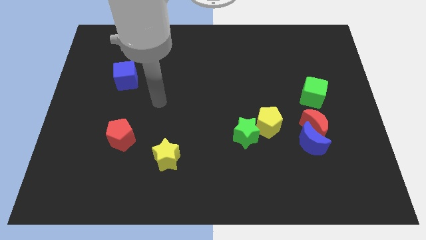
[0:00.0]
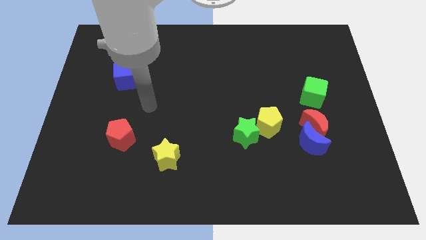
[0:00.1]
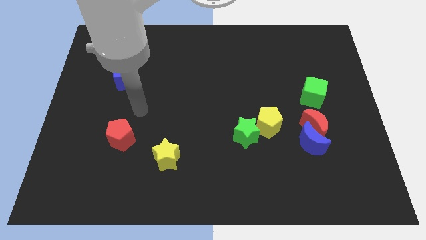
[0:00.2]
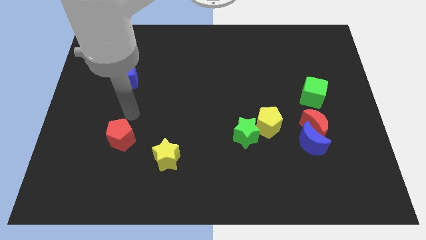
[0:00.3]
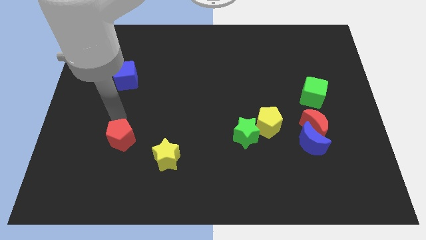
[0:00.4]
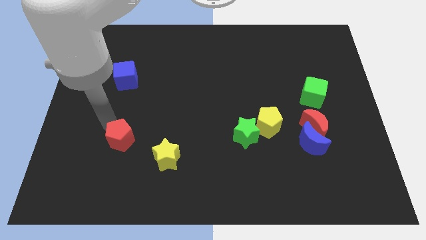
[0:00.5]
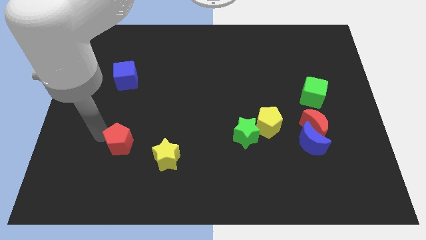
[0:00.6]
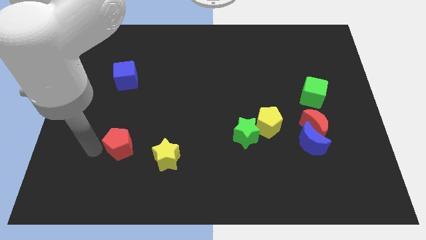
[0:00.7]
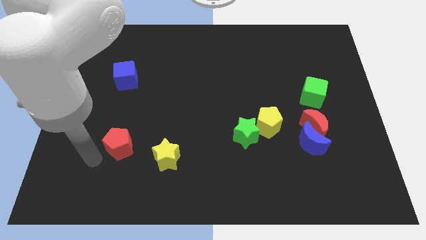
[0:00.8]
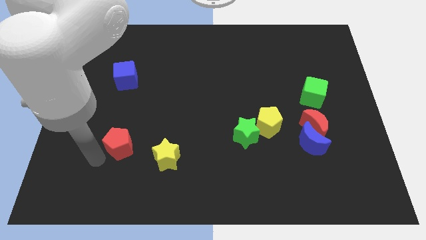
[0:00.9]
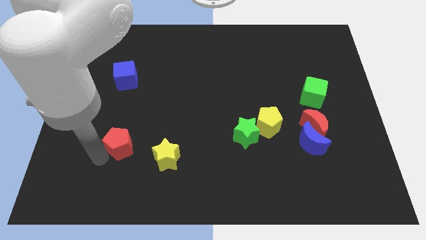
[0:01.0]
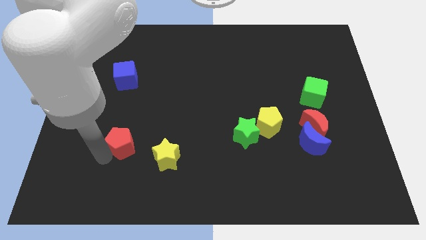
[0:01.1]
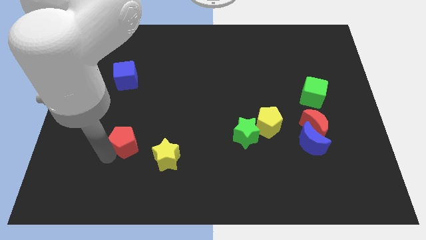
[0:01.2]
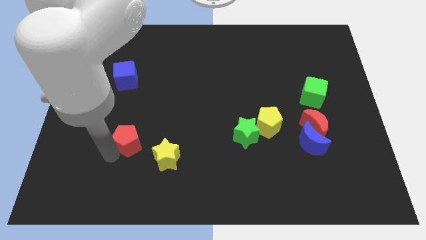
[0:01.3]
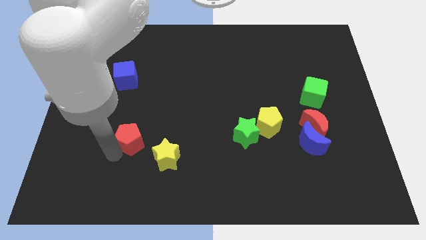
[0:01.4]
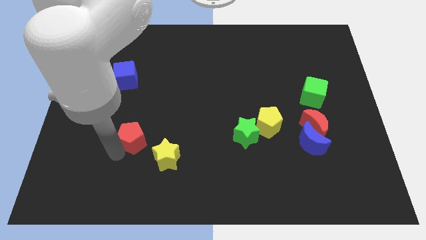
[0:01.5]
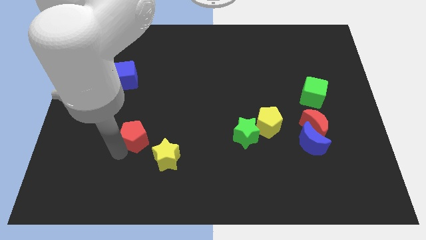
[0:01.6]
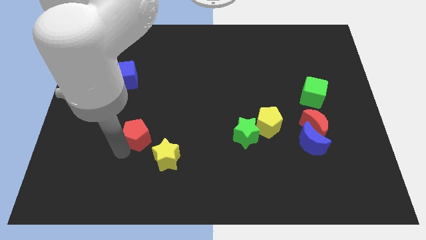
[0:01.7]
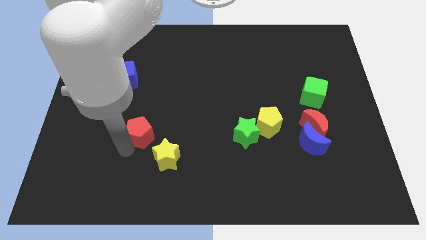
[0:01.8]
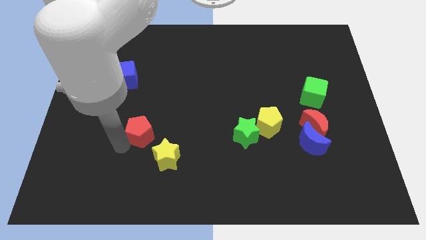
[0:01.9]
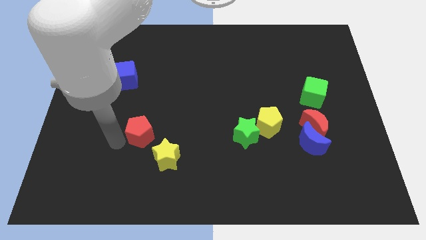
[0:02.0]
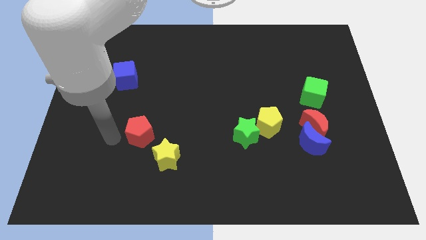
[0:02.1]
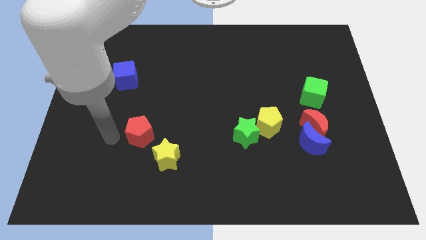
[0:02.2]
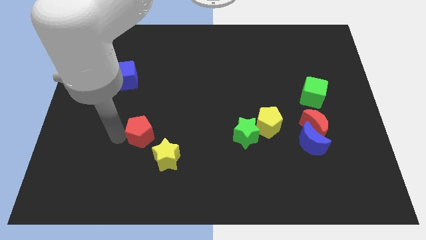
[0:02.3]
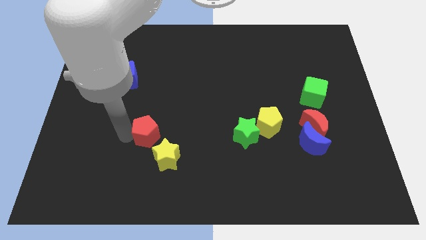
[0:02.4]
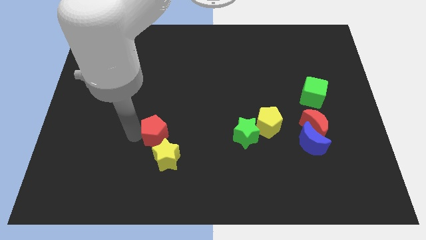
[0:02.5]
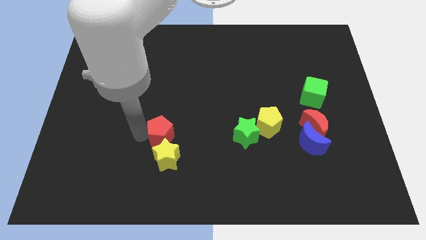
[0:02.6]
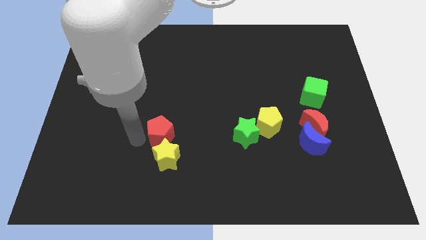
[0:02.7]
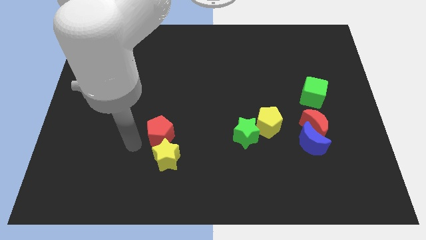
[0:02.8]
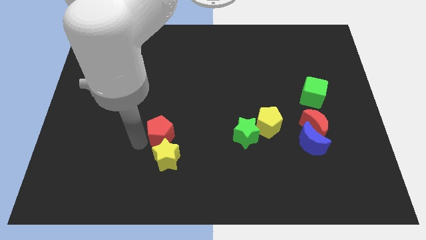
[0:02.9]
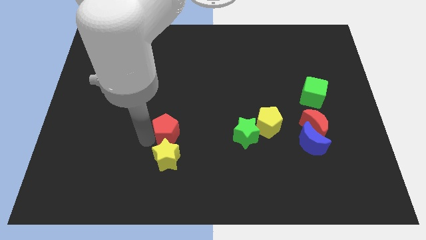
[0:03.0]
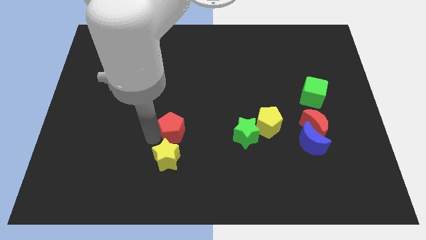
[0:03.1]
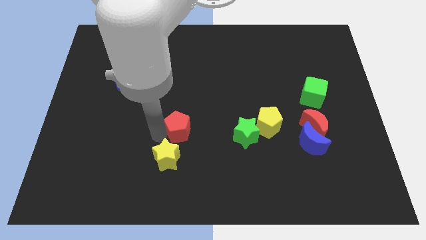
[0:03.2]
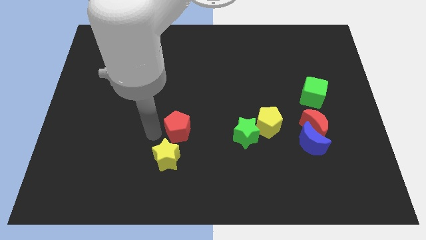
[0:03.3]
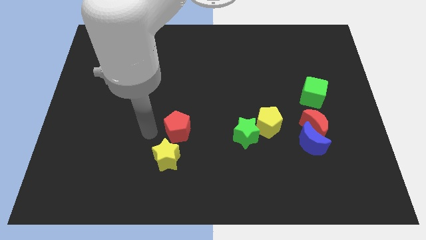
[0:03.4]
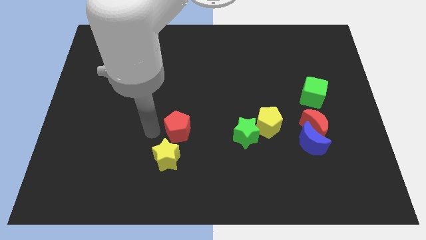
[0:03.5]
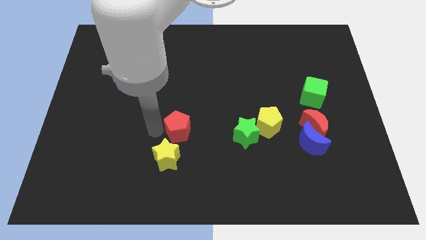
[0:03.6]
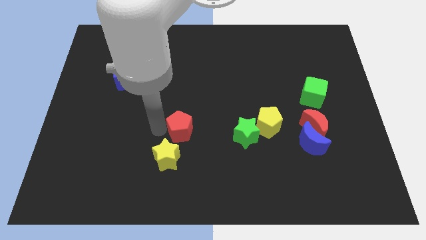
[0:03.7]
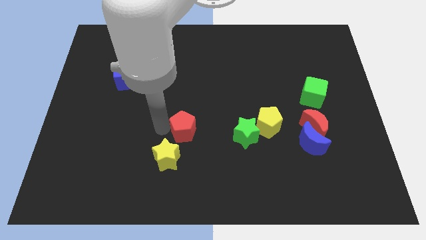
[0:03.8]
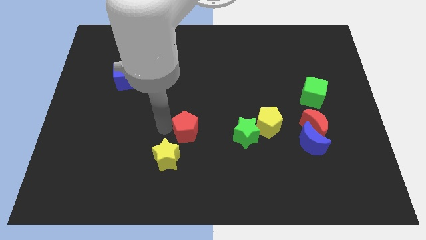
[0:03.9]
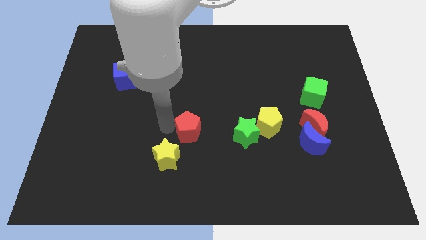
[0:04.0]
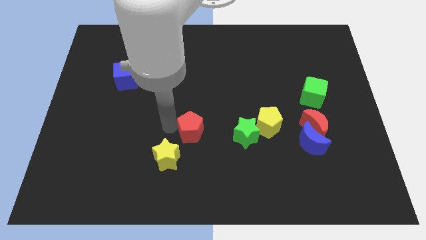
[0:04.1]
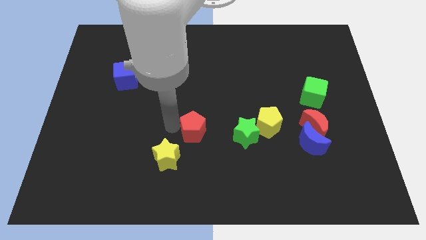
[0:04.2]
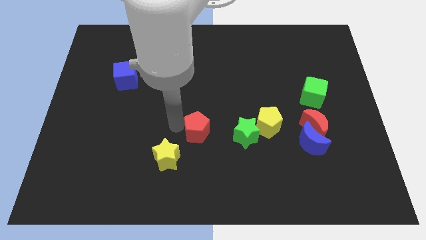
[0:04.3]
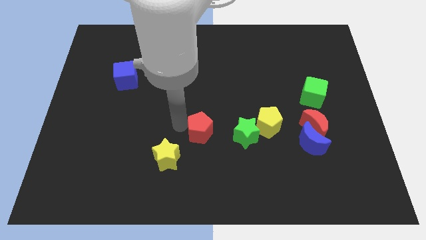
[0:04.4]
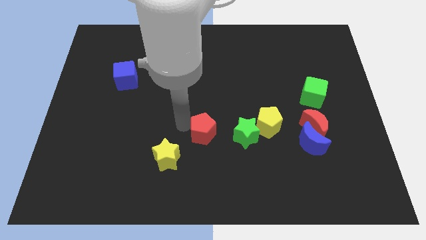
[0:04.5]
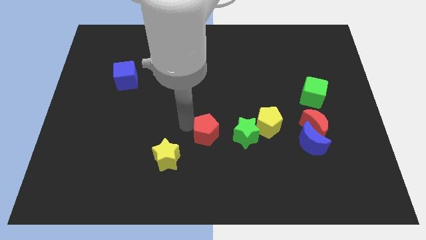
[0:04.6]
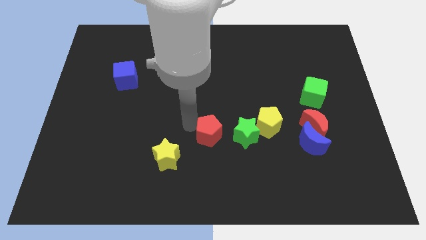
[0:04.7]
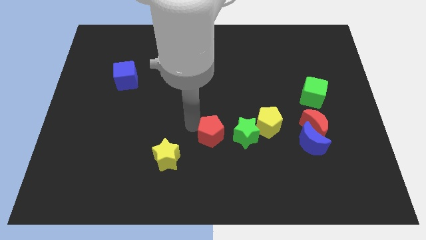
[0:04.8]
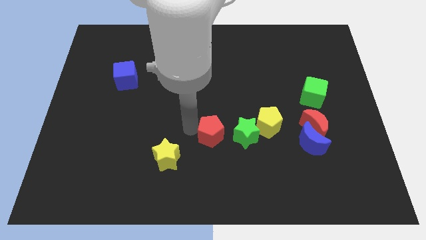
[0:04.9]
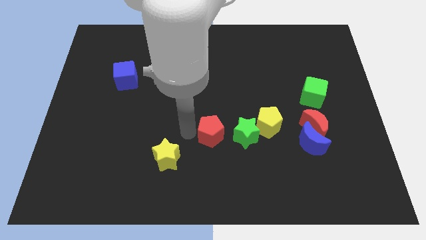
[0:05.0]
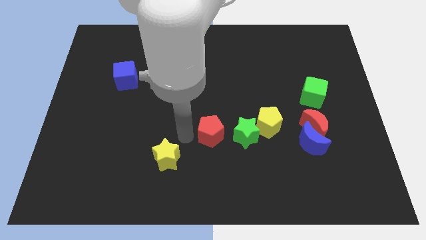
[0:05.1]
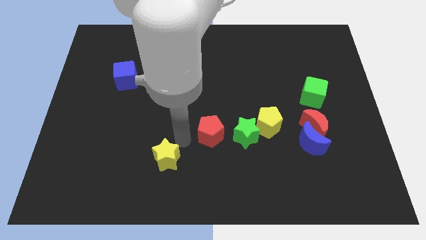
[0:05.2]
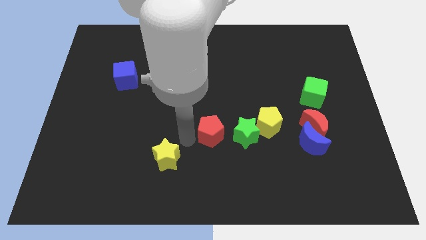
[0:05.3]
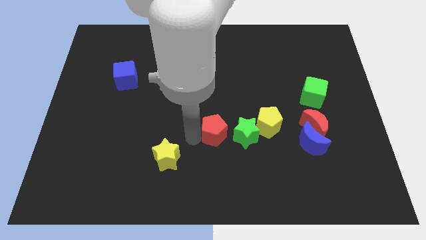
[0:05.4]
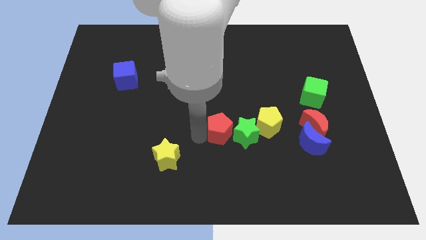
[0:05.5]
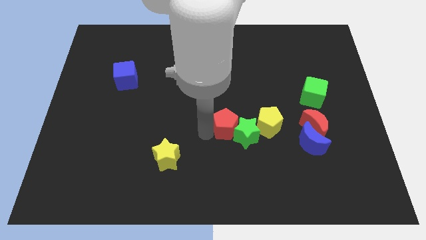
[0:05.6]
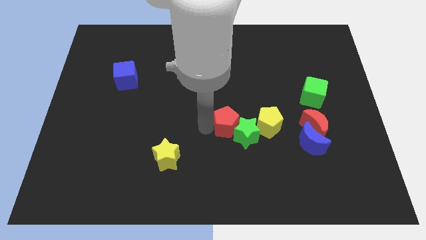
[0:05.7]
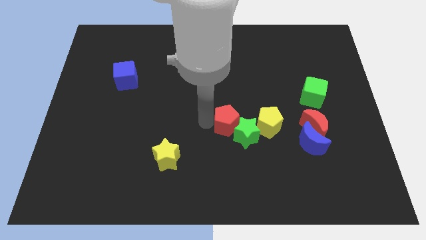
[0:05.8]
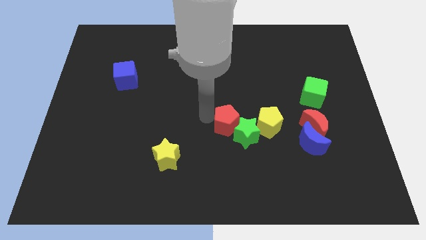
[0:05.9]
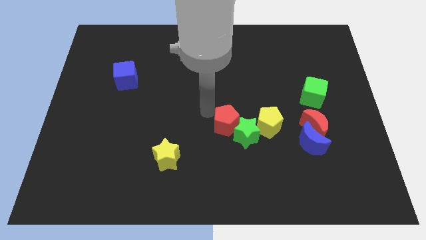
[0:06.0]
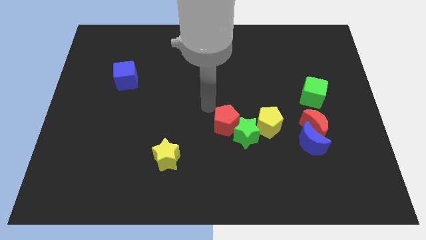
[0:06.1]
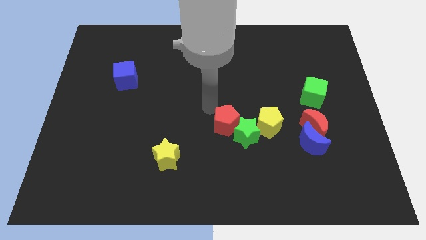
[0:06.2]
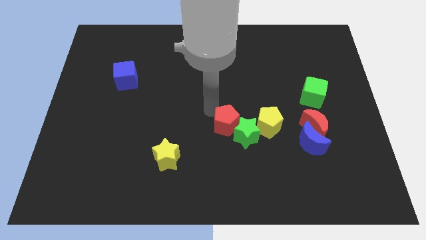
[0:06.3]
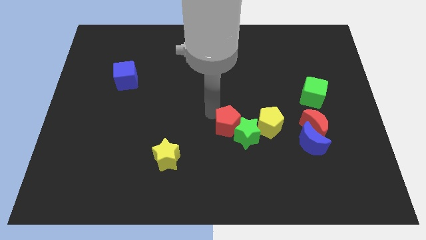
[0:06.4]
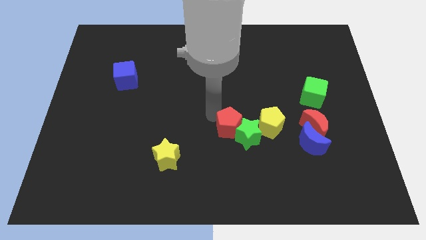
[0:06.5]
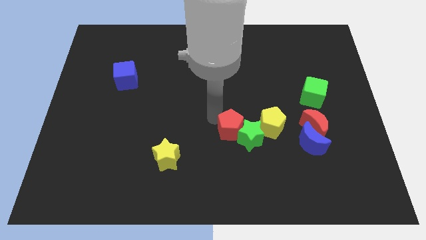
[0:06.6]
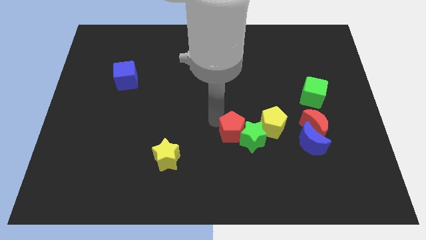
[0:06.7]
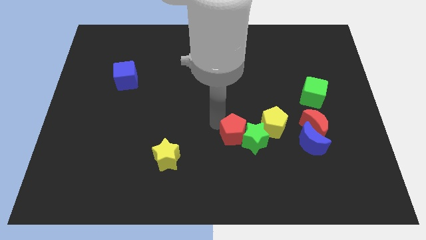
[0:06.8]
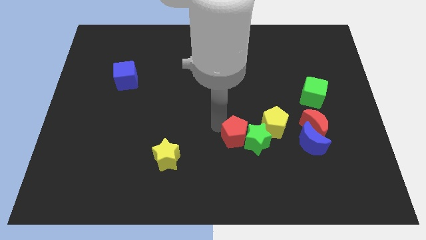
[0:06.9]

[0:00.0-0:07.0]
move the red pentagon to the bottom left of the yellow pentagon

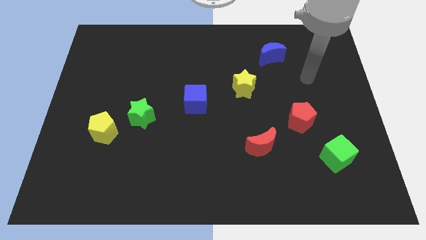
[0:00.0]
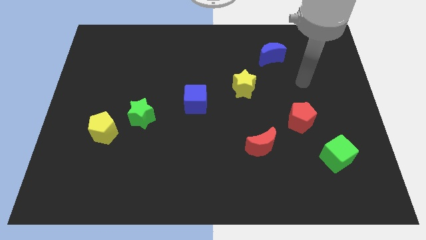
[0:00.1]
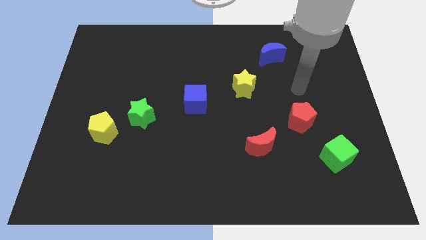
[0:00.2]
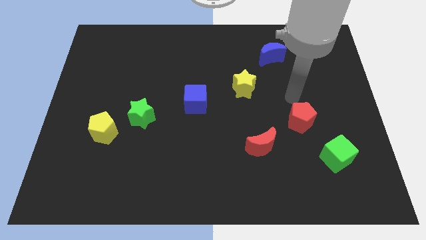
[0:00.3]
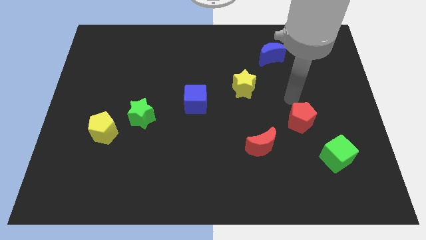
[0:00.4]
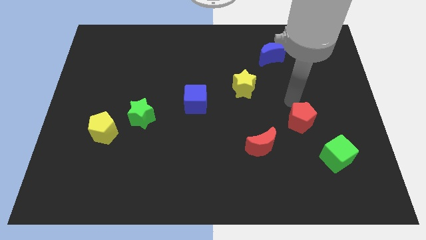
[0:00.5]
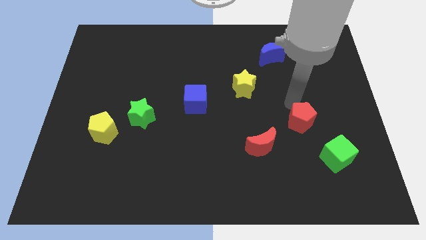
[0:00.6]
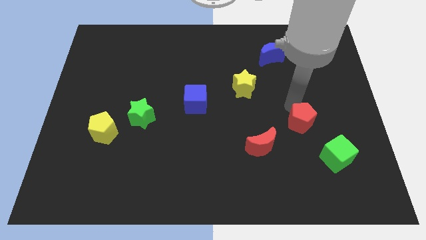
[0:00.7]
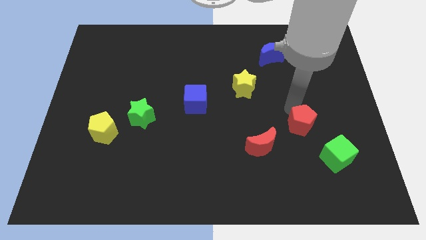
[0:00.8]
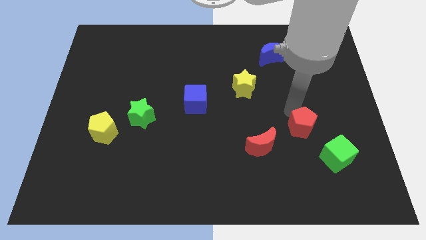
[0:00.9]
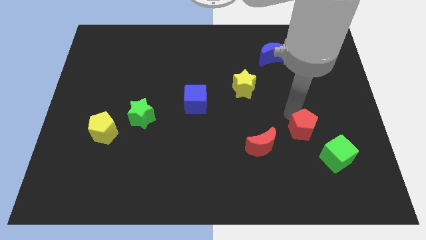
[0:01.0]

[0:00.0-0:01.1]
push the red pentagon just right of the red moon
